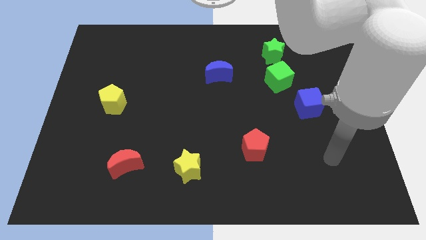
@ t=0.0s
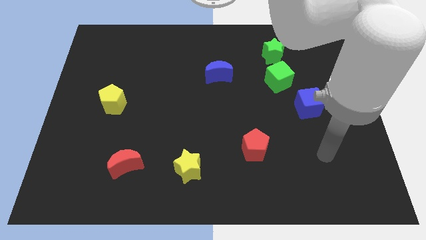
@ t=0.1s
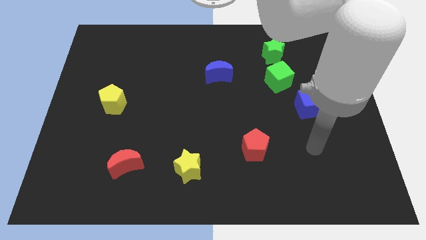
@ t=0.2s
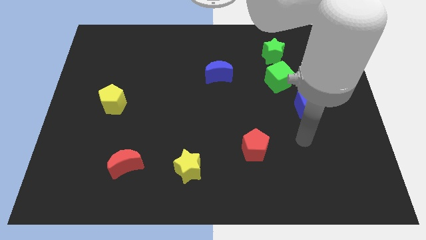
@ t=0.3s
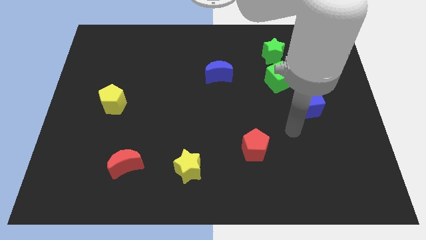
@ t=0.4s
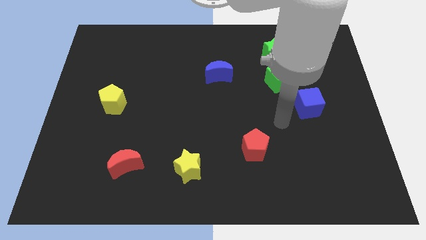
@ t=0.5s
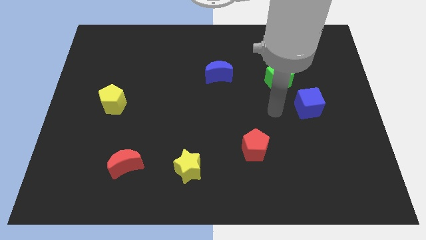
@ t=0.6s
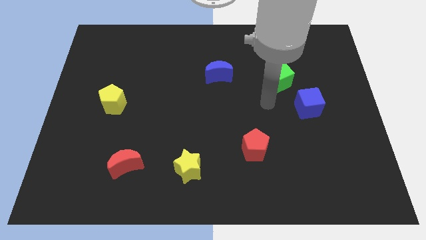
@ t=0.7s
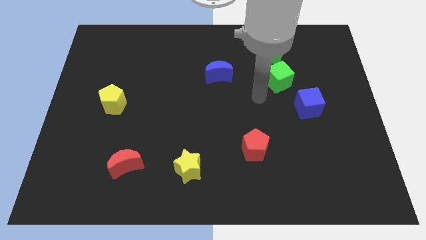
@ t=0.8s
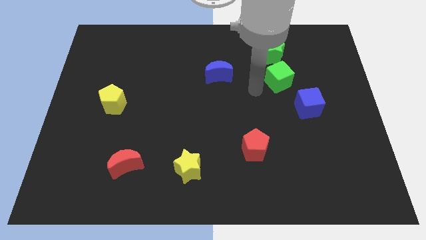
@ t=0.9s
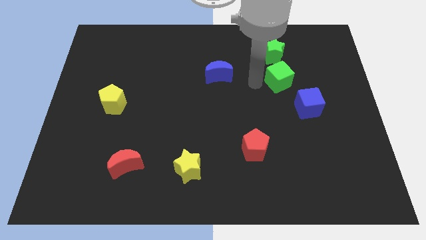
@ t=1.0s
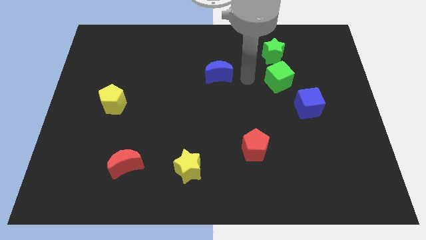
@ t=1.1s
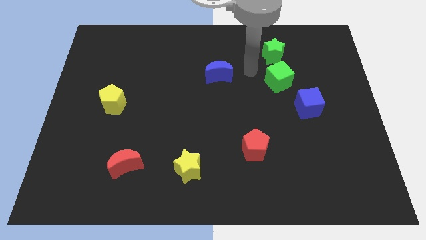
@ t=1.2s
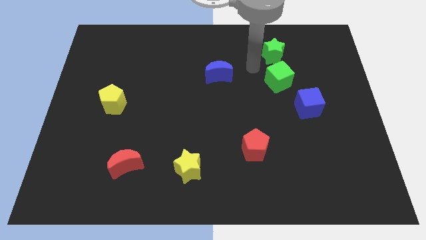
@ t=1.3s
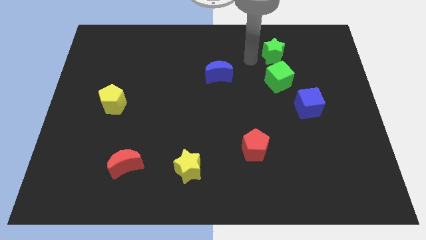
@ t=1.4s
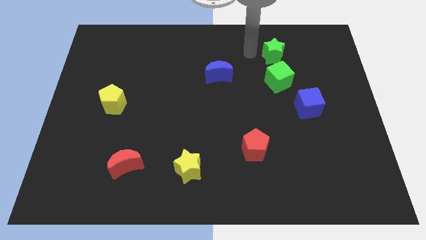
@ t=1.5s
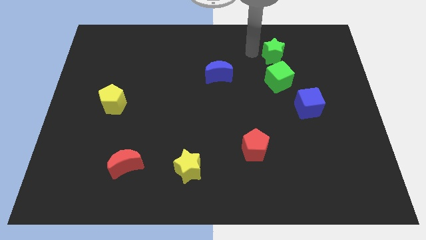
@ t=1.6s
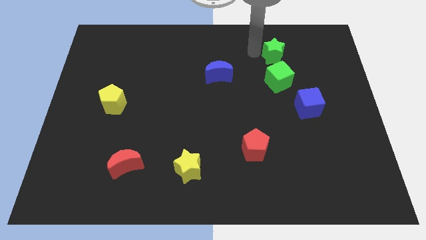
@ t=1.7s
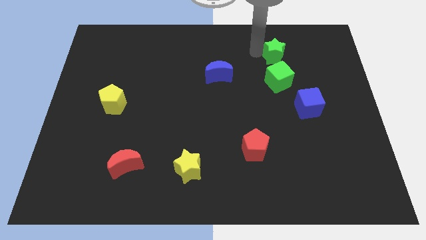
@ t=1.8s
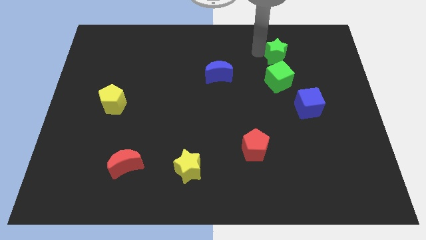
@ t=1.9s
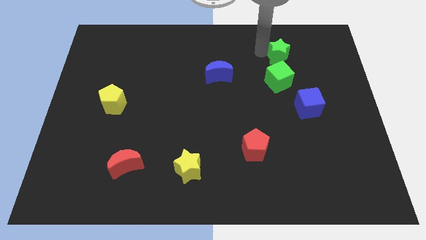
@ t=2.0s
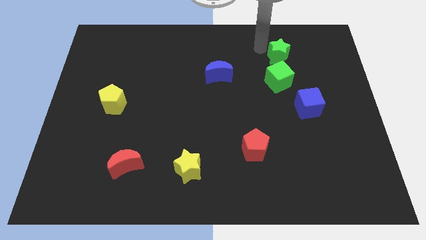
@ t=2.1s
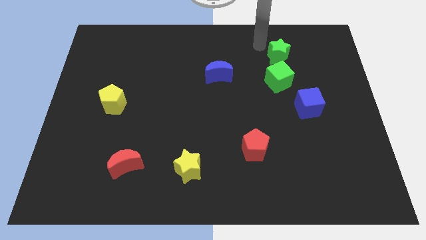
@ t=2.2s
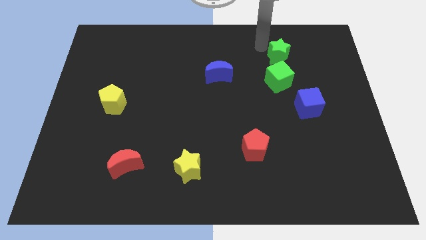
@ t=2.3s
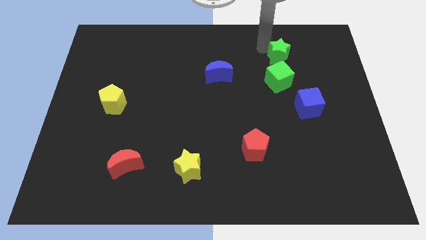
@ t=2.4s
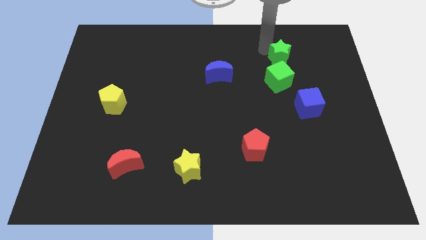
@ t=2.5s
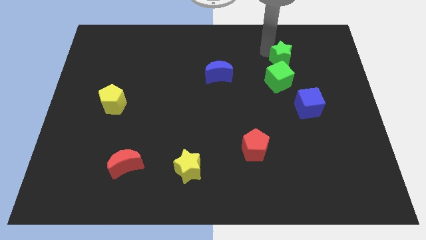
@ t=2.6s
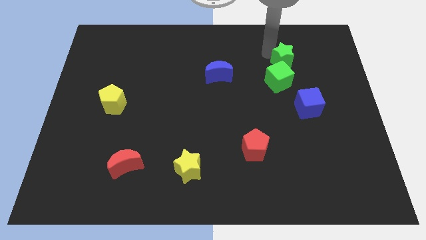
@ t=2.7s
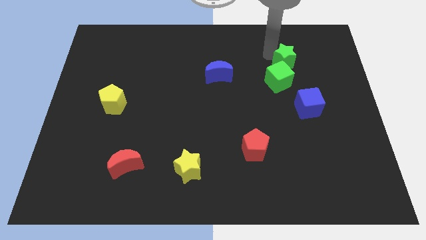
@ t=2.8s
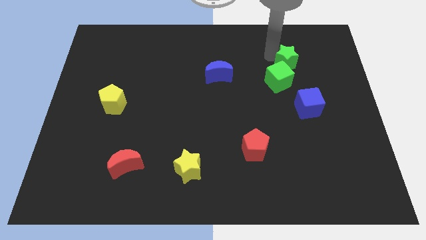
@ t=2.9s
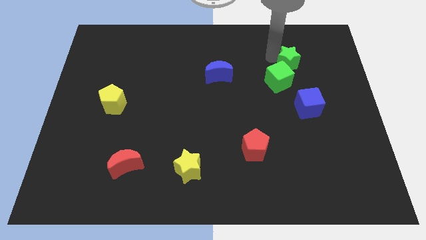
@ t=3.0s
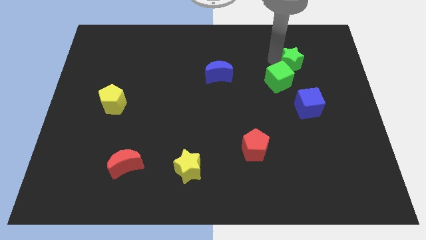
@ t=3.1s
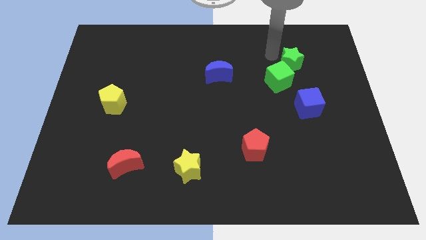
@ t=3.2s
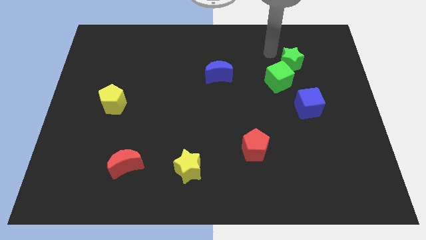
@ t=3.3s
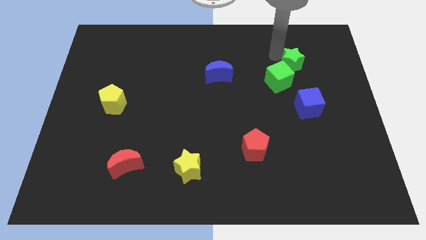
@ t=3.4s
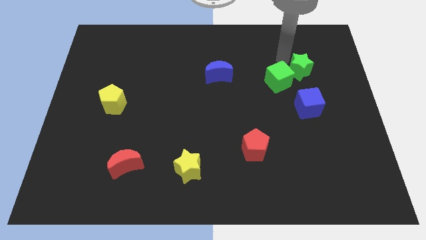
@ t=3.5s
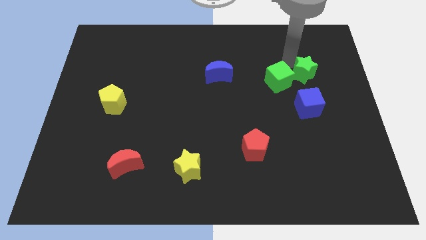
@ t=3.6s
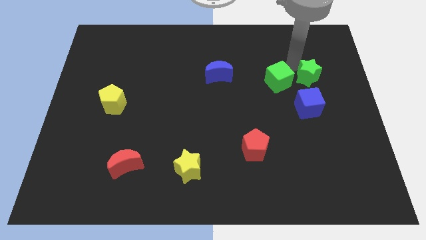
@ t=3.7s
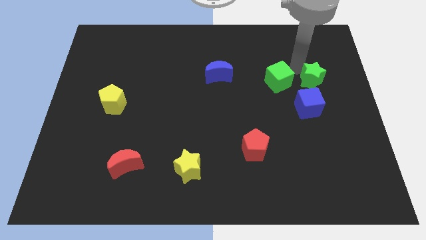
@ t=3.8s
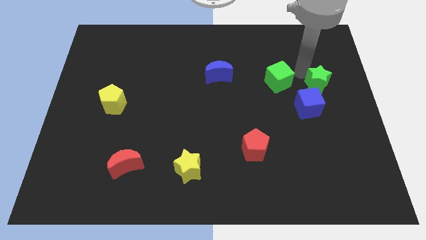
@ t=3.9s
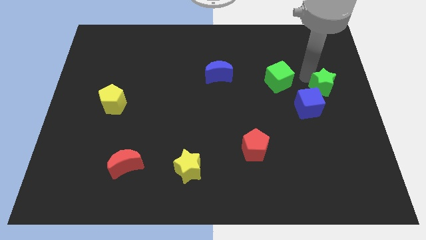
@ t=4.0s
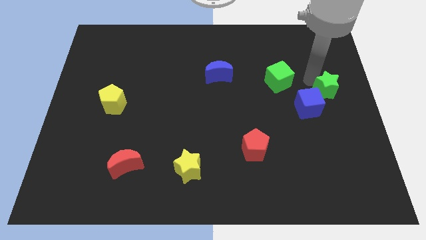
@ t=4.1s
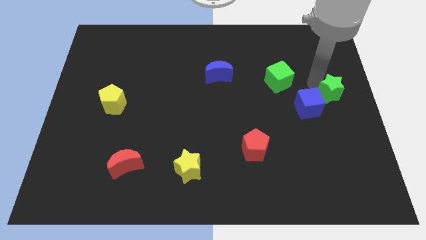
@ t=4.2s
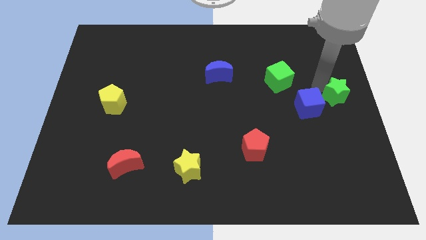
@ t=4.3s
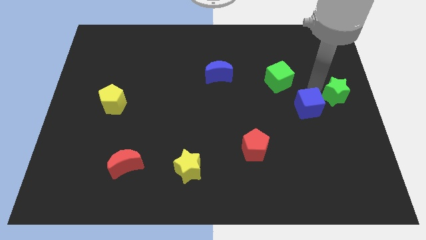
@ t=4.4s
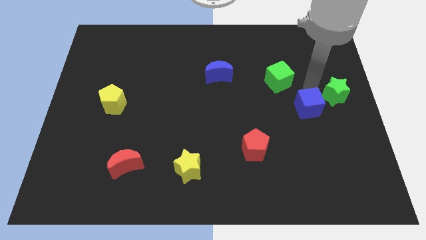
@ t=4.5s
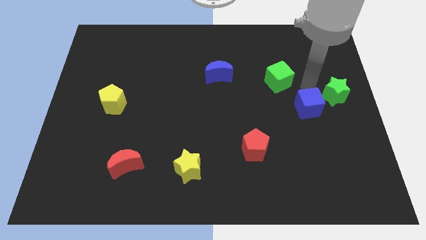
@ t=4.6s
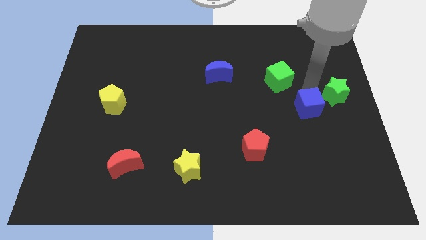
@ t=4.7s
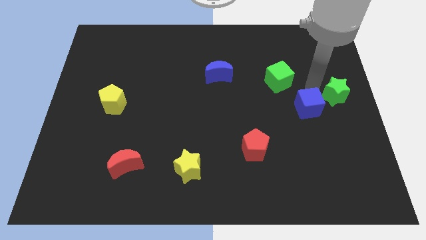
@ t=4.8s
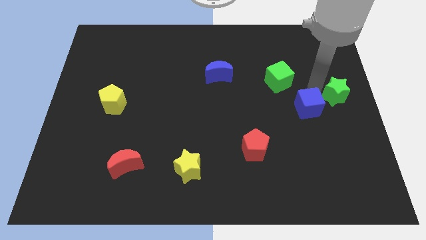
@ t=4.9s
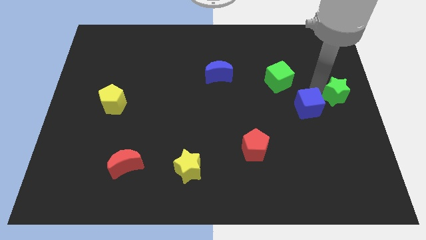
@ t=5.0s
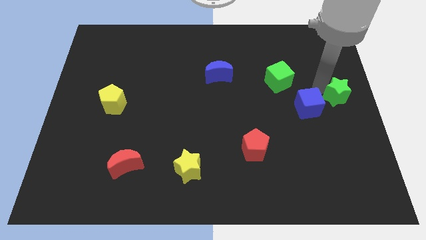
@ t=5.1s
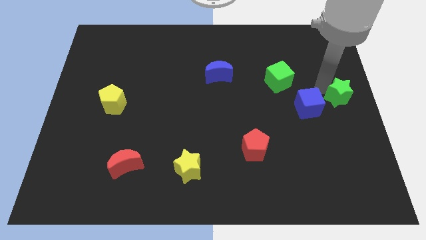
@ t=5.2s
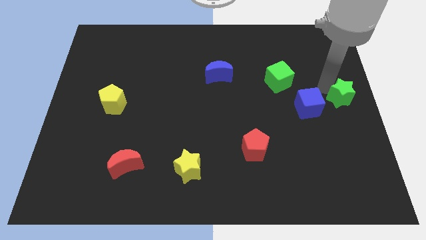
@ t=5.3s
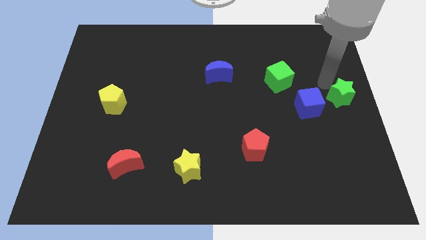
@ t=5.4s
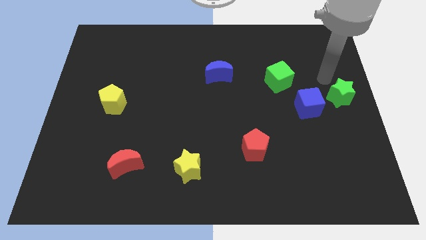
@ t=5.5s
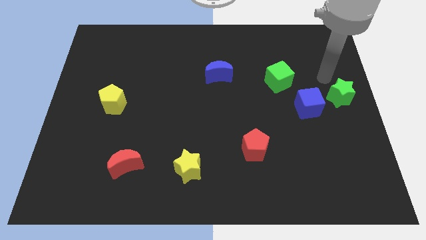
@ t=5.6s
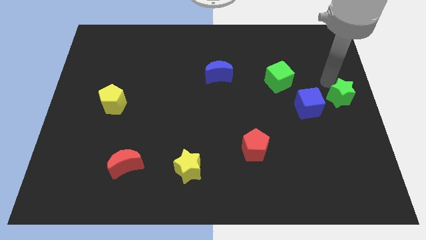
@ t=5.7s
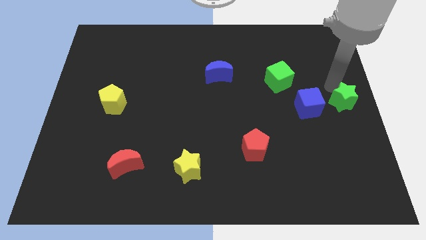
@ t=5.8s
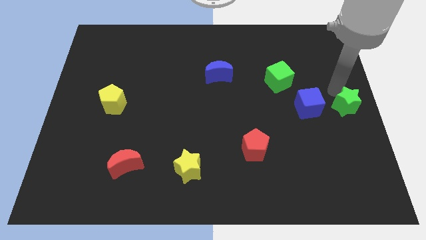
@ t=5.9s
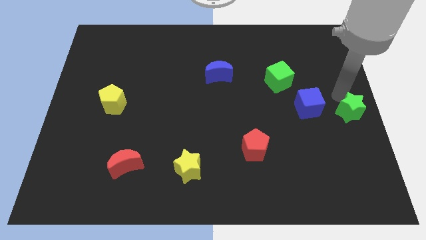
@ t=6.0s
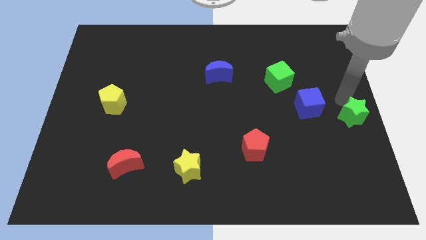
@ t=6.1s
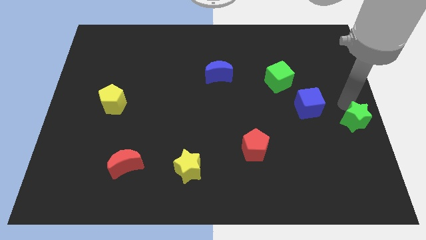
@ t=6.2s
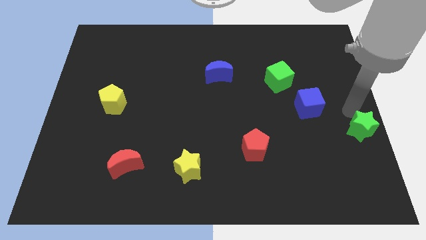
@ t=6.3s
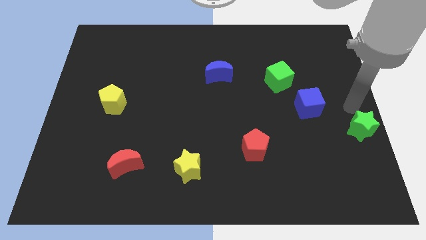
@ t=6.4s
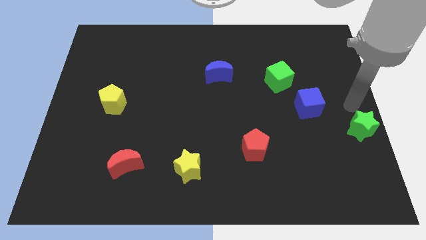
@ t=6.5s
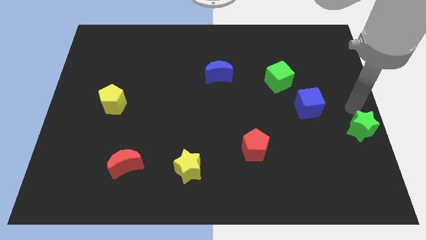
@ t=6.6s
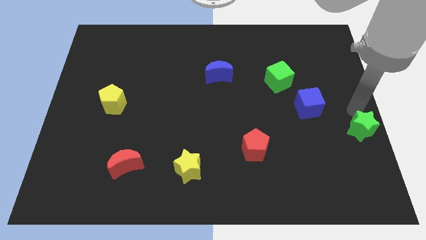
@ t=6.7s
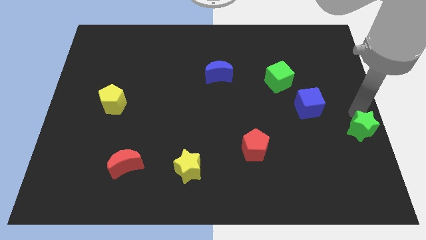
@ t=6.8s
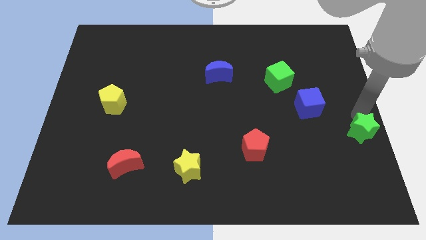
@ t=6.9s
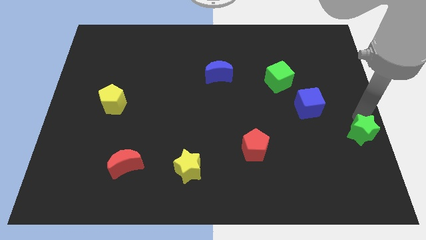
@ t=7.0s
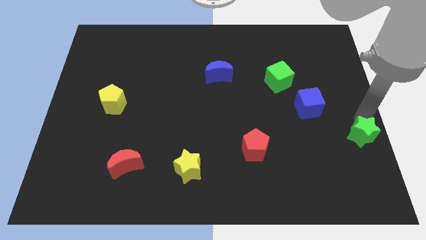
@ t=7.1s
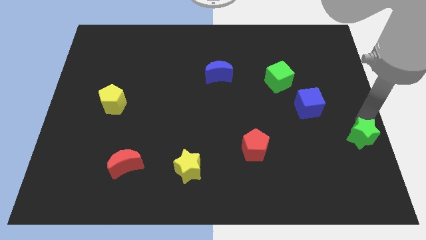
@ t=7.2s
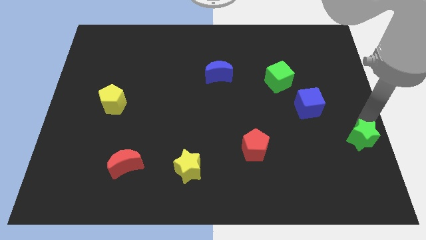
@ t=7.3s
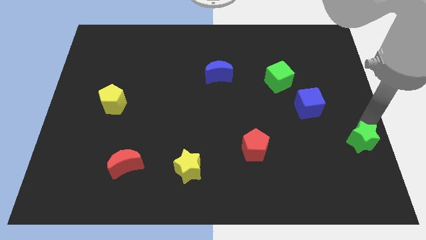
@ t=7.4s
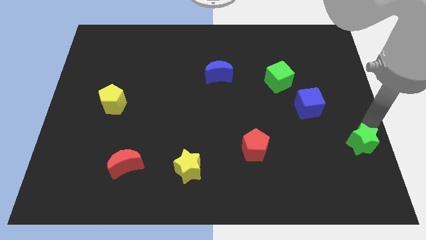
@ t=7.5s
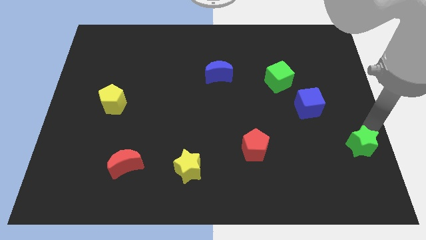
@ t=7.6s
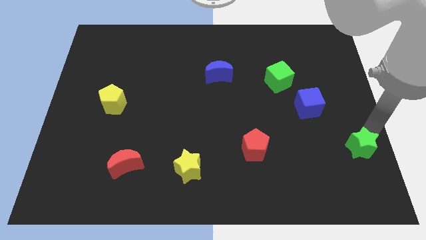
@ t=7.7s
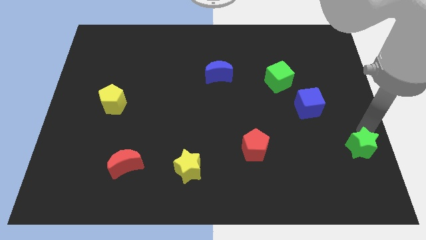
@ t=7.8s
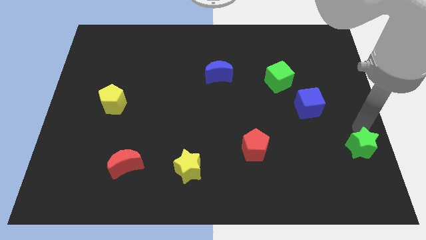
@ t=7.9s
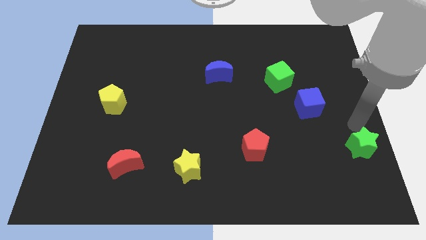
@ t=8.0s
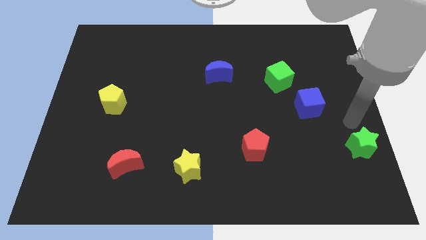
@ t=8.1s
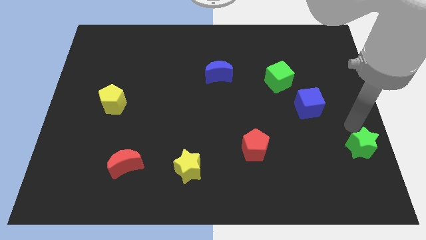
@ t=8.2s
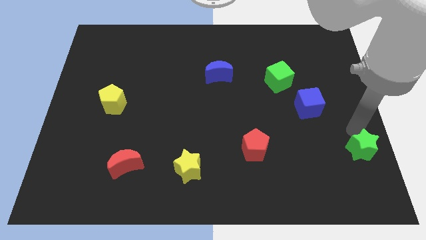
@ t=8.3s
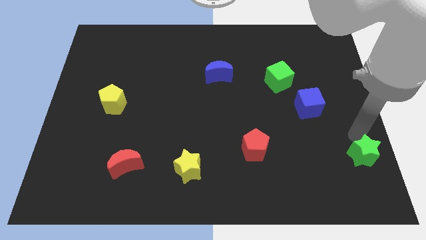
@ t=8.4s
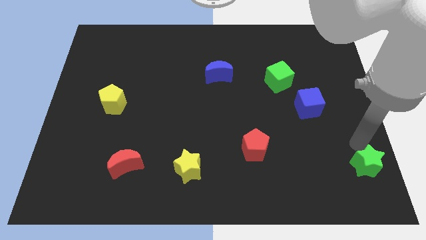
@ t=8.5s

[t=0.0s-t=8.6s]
push the green star to the lower right corner
